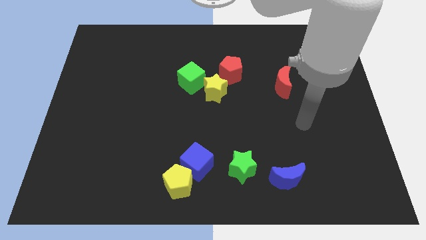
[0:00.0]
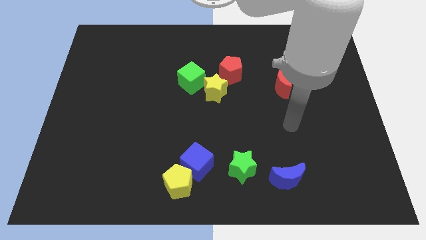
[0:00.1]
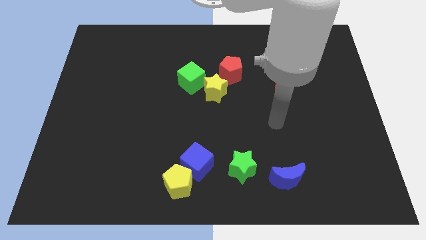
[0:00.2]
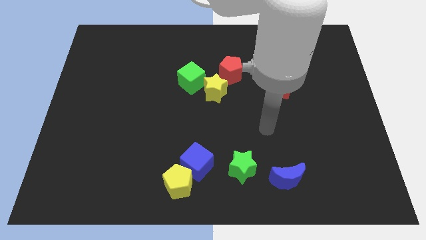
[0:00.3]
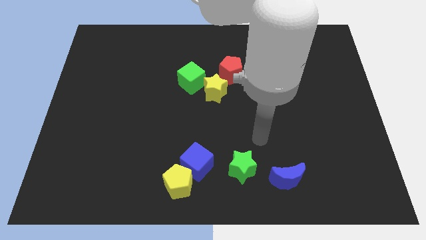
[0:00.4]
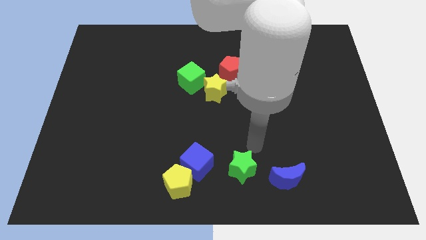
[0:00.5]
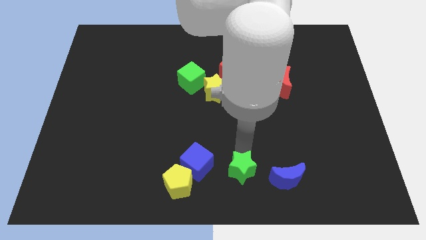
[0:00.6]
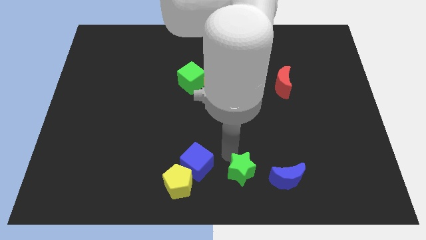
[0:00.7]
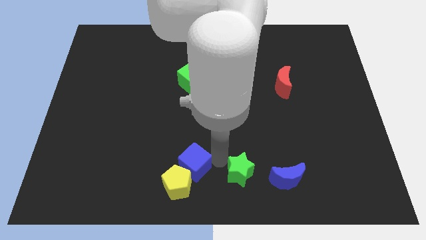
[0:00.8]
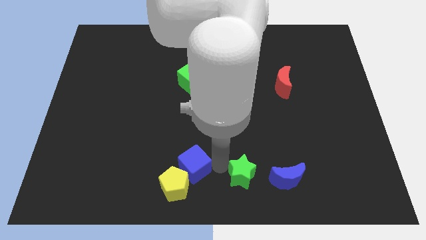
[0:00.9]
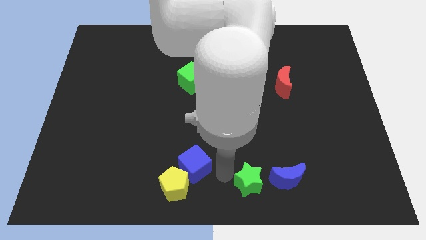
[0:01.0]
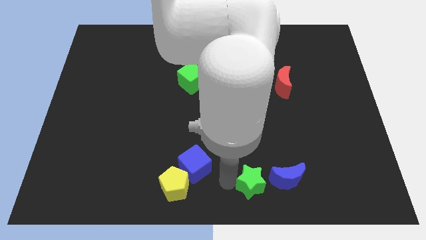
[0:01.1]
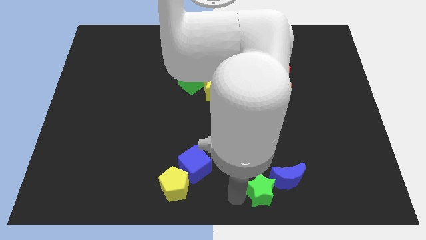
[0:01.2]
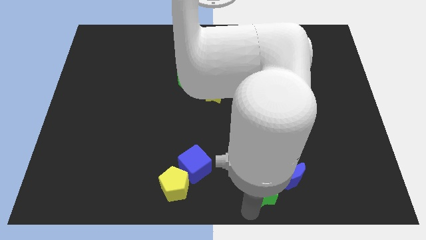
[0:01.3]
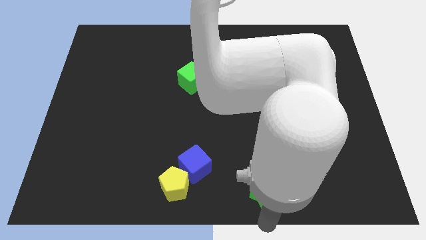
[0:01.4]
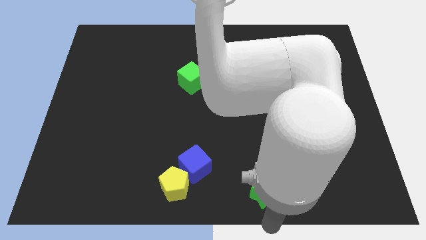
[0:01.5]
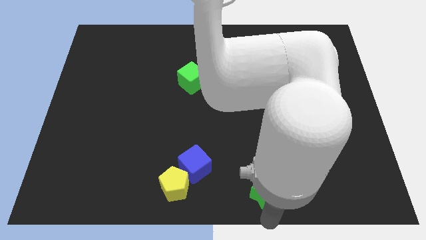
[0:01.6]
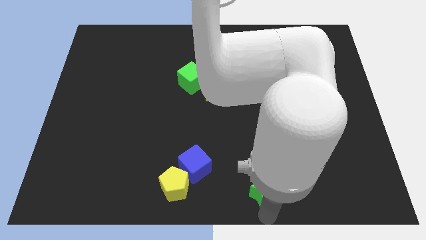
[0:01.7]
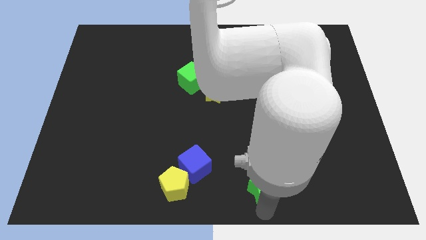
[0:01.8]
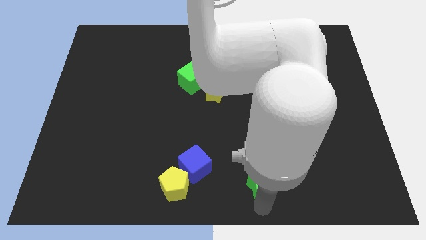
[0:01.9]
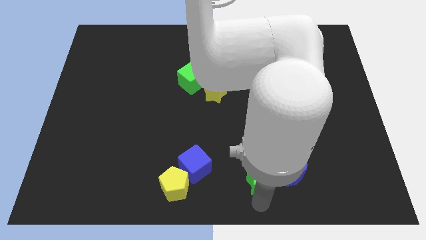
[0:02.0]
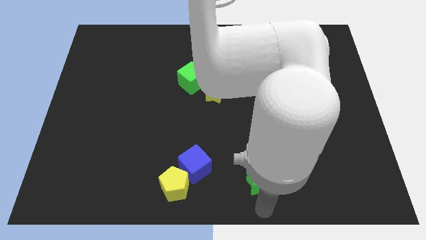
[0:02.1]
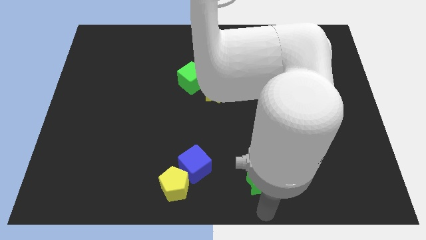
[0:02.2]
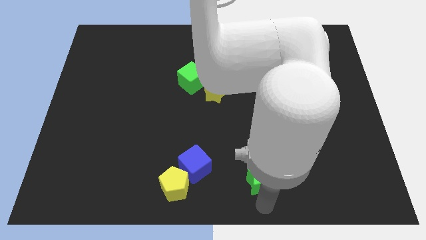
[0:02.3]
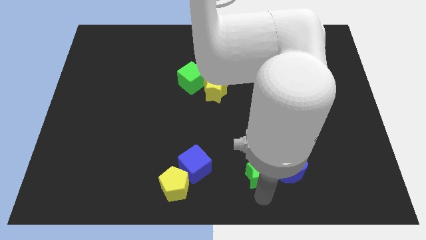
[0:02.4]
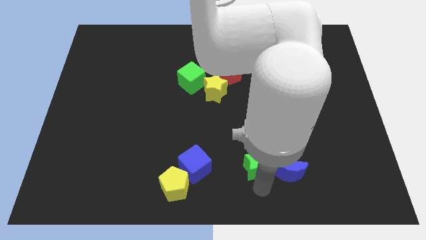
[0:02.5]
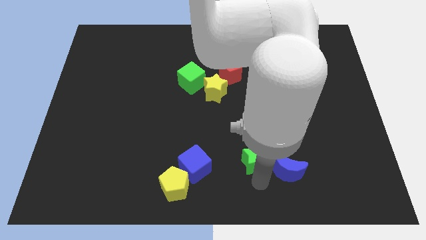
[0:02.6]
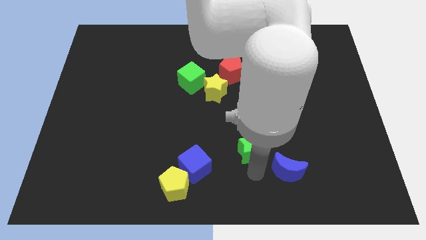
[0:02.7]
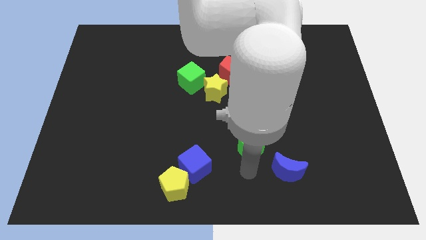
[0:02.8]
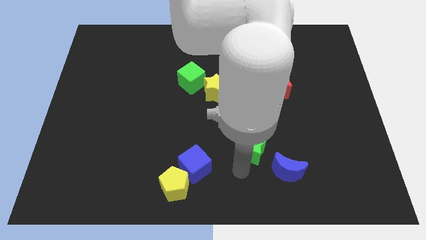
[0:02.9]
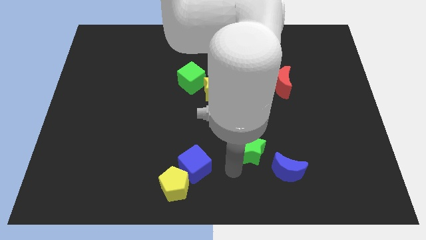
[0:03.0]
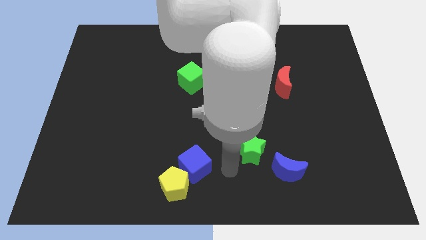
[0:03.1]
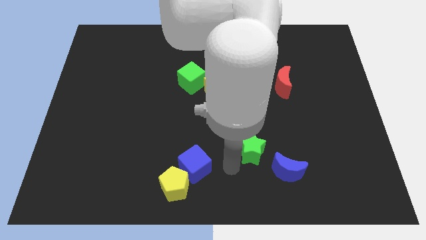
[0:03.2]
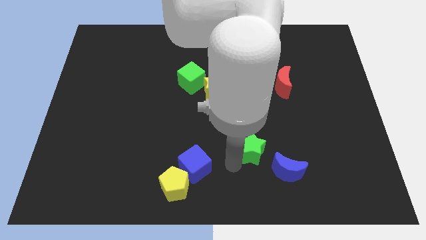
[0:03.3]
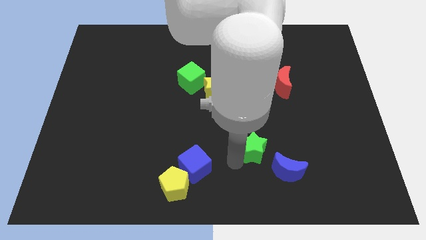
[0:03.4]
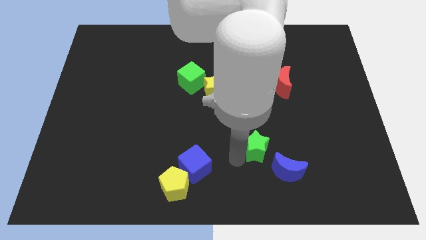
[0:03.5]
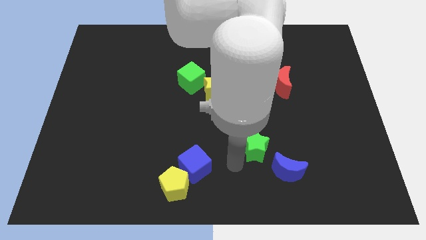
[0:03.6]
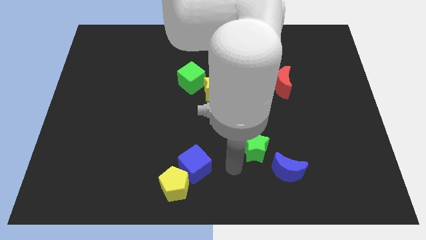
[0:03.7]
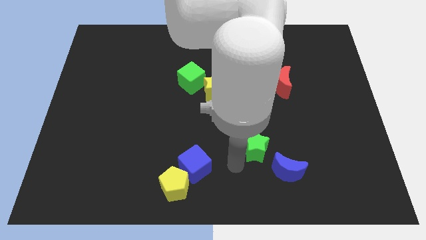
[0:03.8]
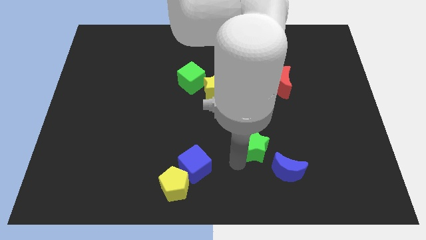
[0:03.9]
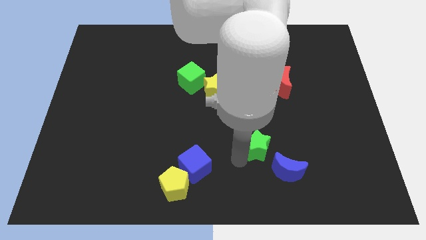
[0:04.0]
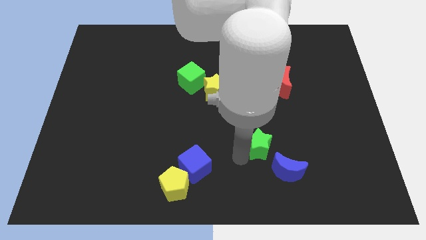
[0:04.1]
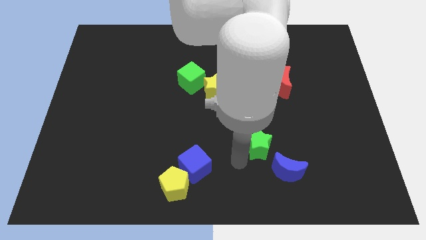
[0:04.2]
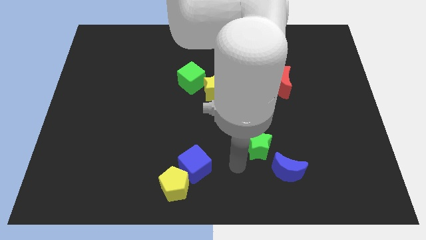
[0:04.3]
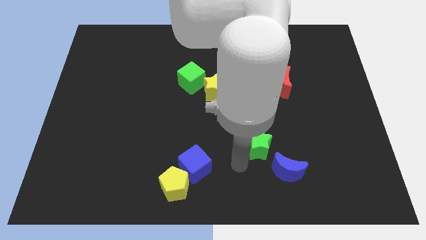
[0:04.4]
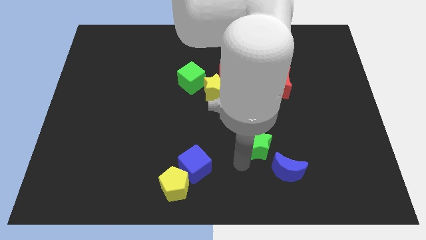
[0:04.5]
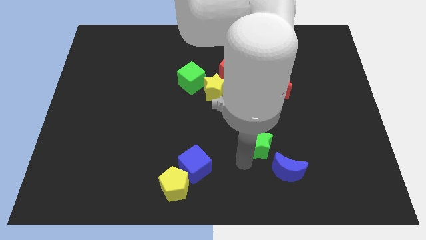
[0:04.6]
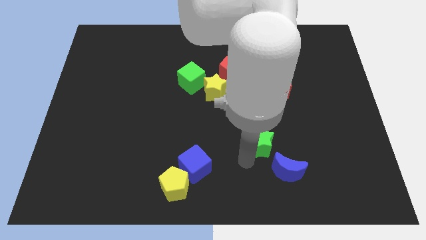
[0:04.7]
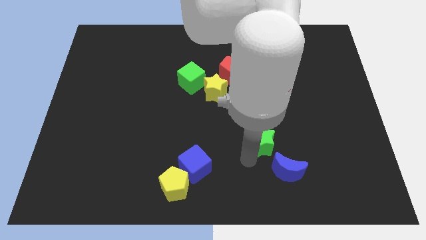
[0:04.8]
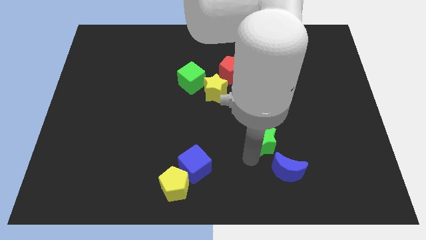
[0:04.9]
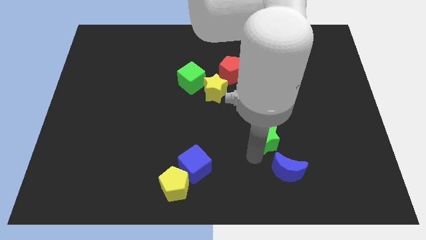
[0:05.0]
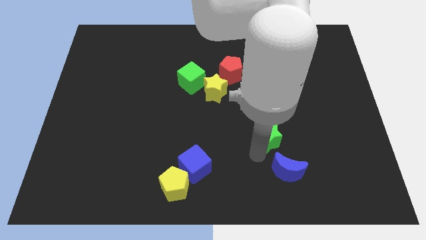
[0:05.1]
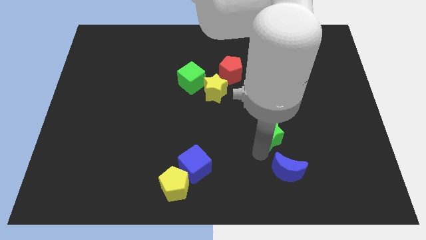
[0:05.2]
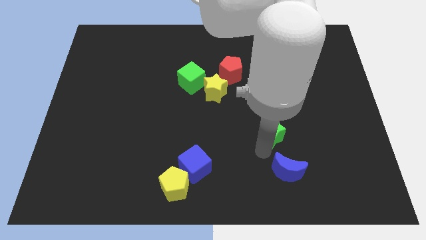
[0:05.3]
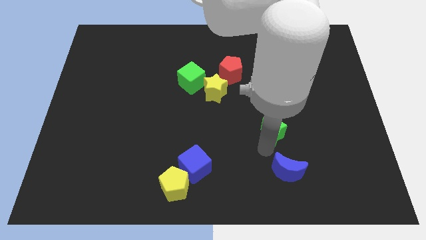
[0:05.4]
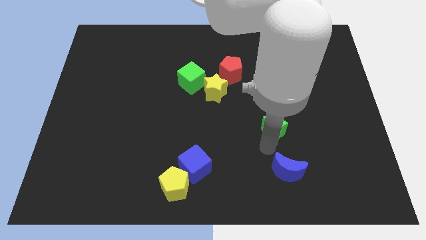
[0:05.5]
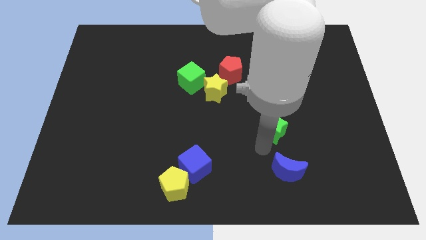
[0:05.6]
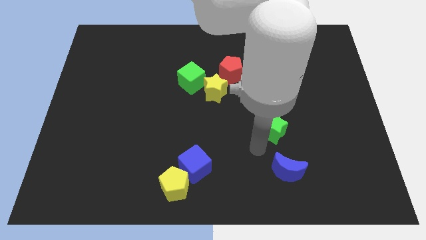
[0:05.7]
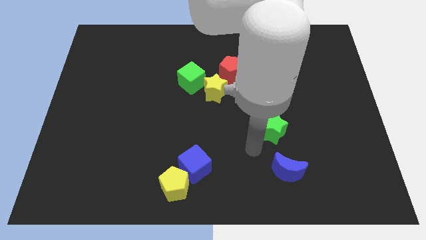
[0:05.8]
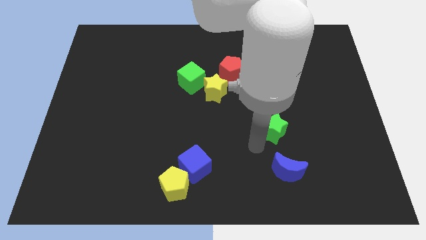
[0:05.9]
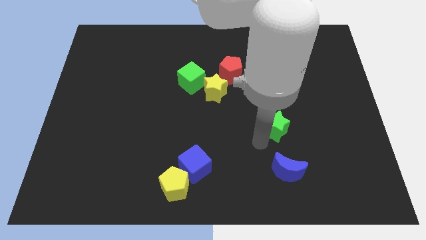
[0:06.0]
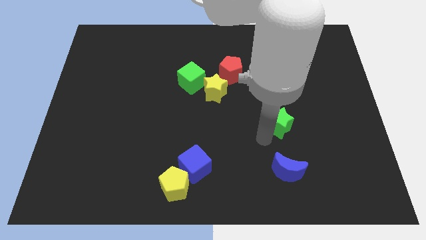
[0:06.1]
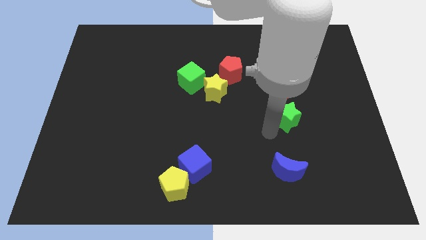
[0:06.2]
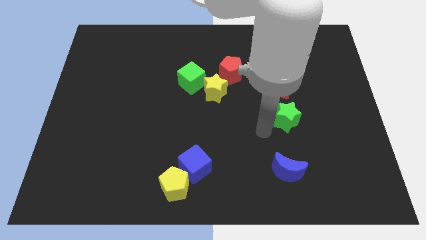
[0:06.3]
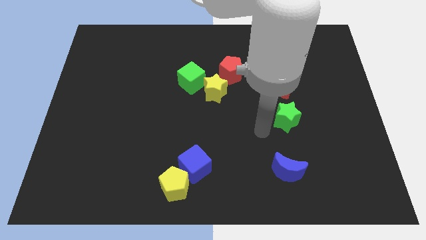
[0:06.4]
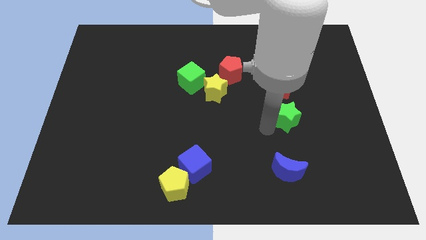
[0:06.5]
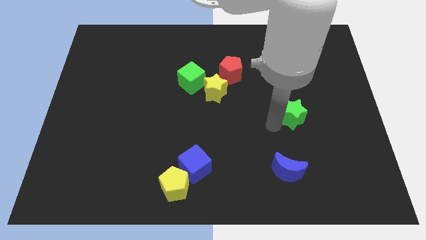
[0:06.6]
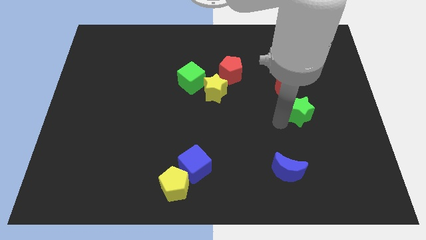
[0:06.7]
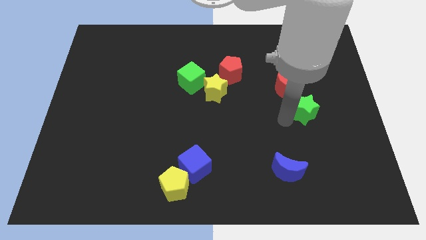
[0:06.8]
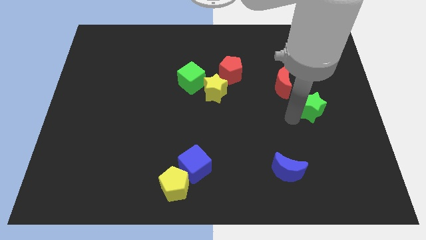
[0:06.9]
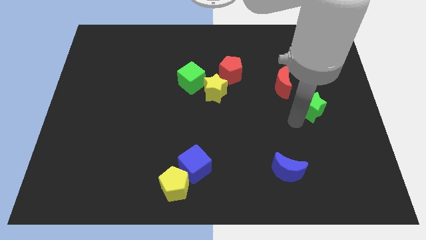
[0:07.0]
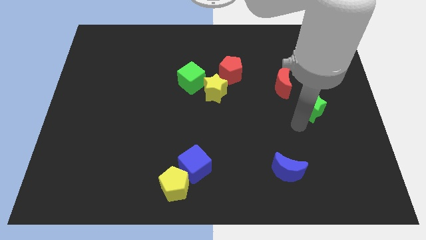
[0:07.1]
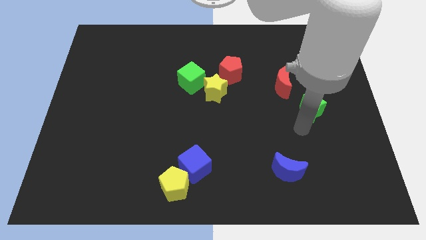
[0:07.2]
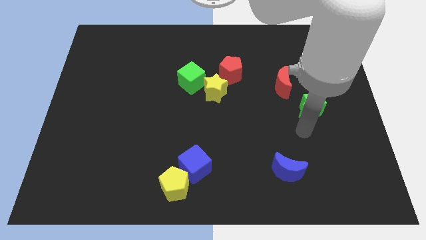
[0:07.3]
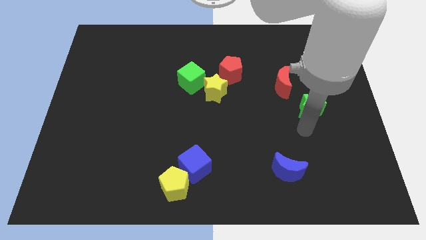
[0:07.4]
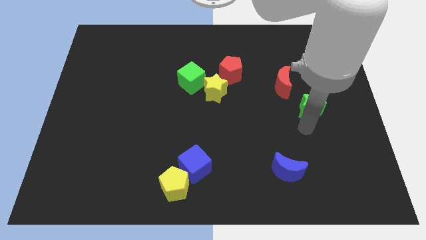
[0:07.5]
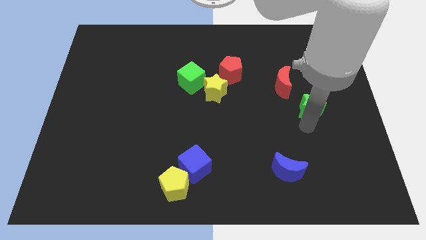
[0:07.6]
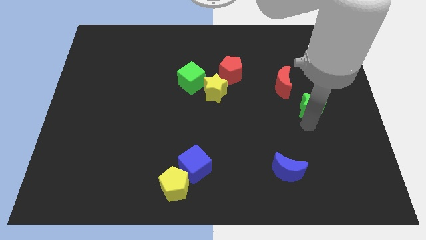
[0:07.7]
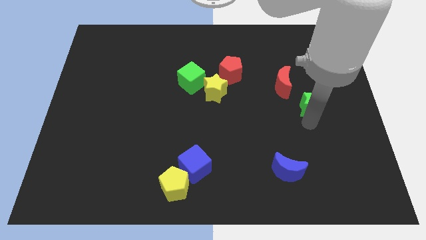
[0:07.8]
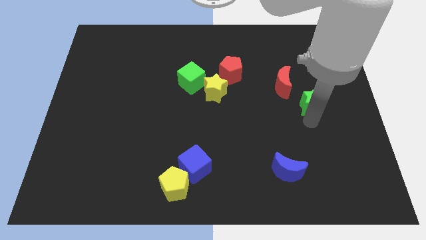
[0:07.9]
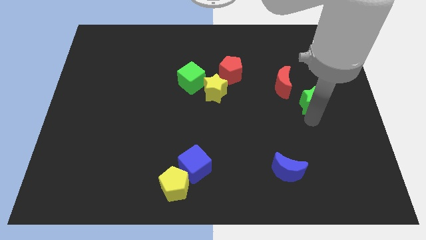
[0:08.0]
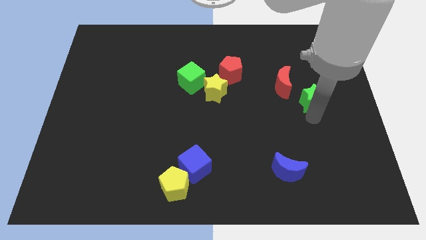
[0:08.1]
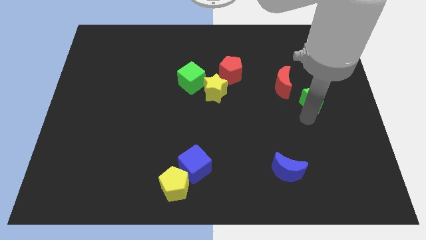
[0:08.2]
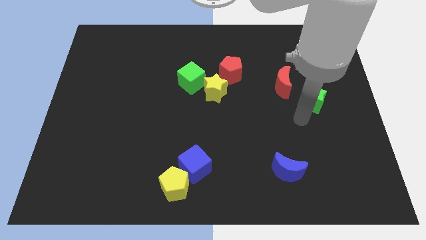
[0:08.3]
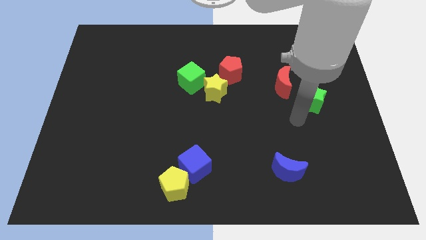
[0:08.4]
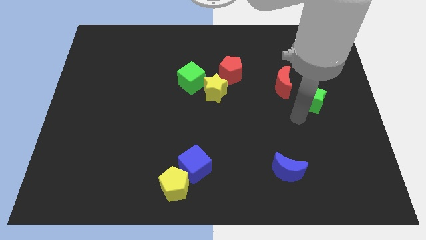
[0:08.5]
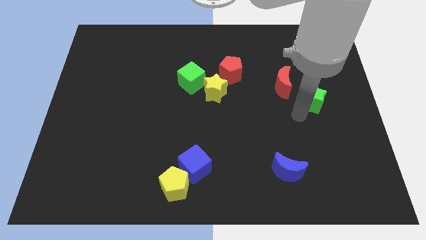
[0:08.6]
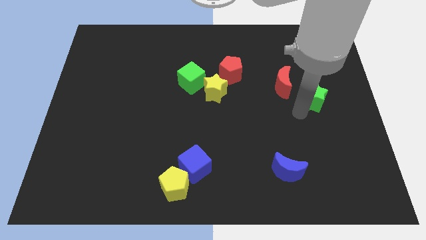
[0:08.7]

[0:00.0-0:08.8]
push the green star right of the red moon
